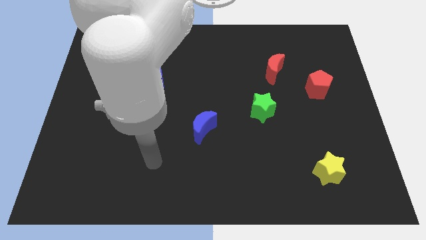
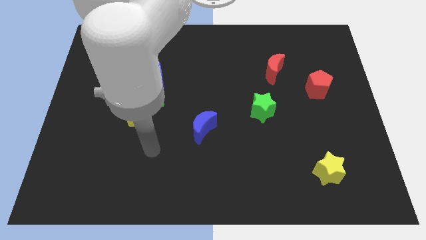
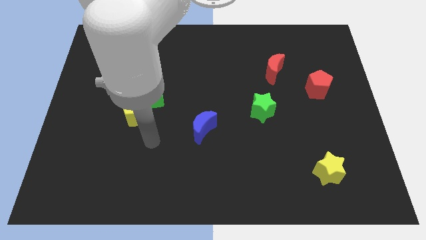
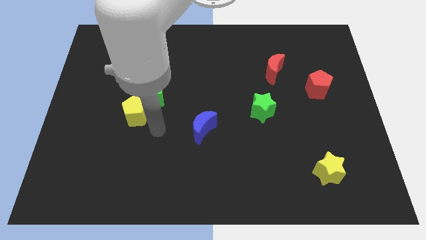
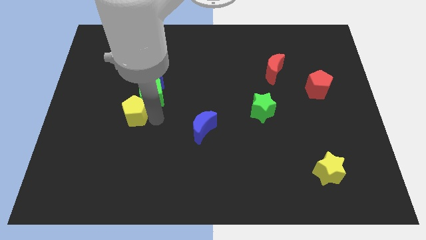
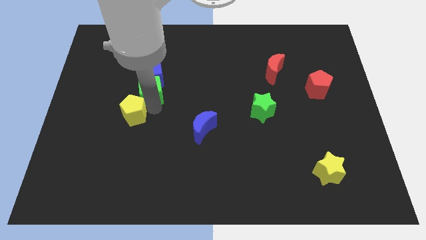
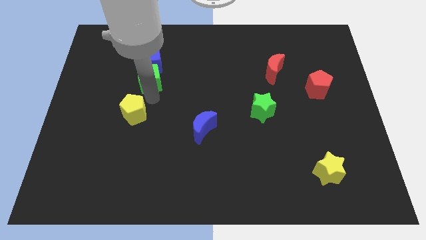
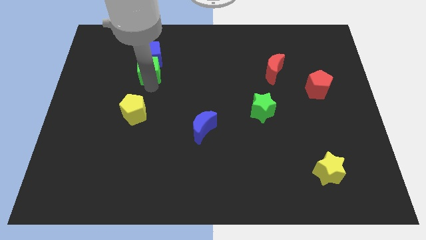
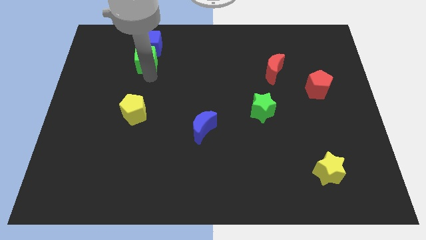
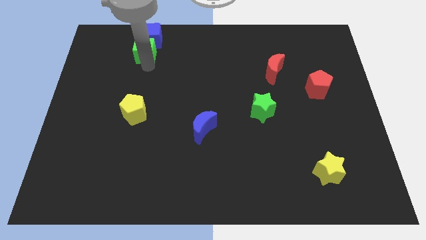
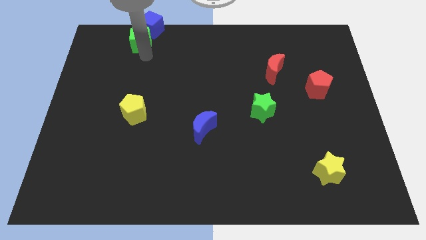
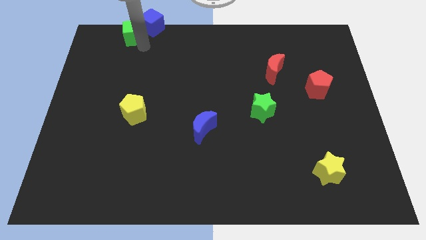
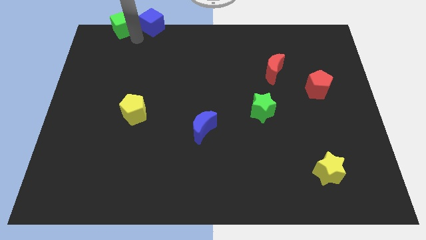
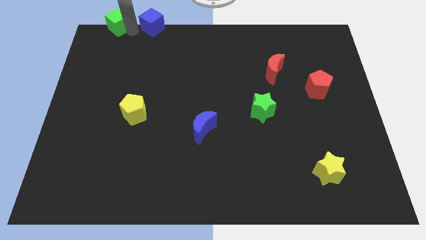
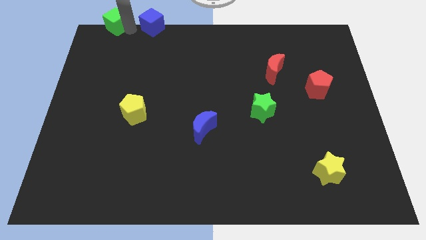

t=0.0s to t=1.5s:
move the blue cube away from the green cube

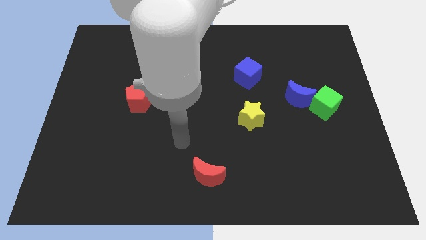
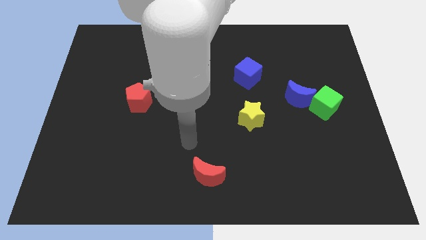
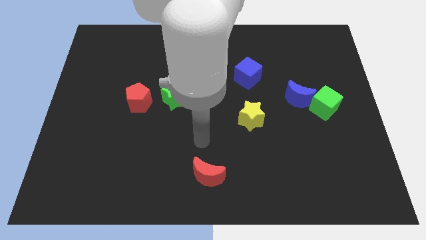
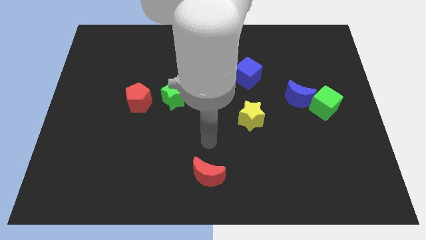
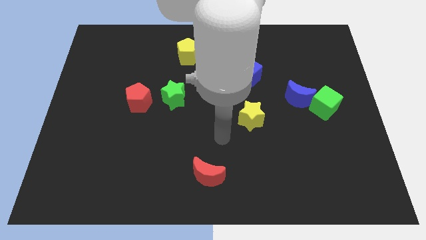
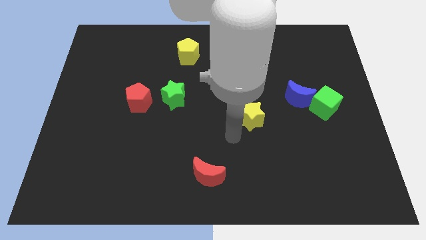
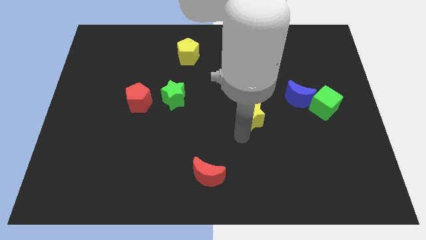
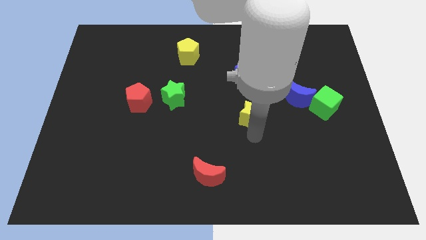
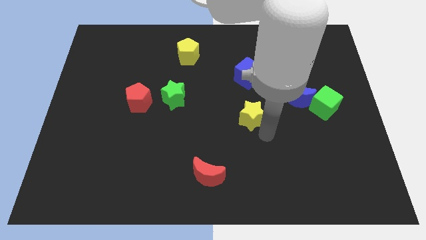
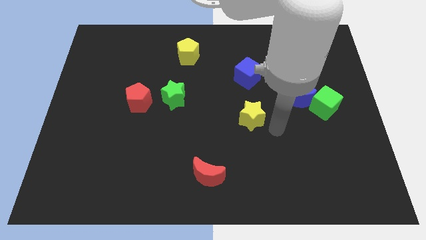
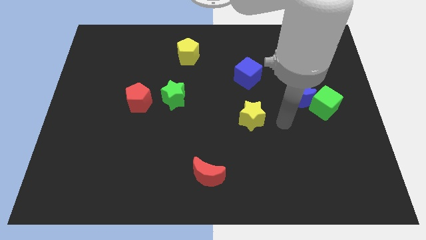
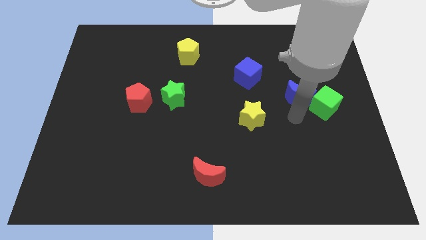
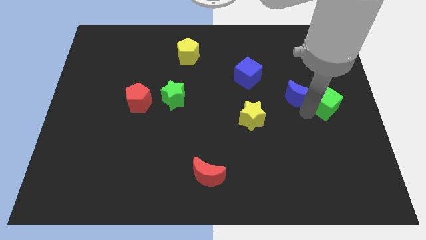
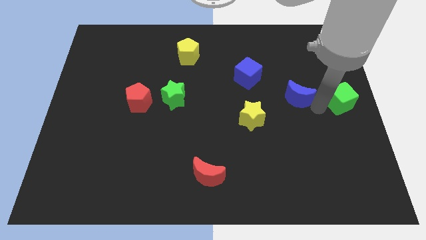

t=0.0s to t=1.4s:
separate the blue moon from the green cube

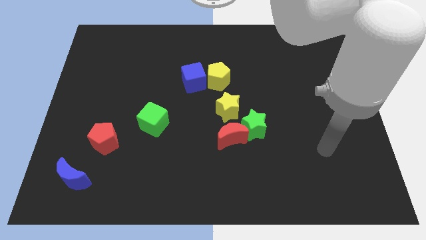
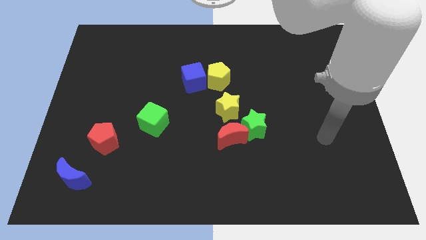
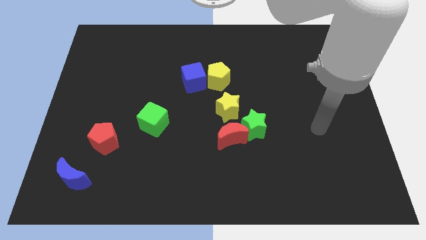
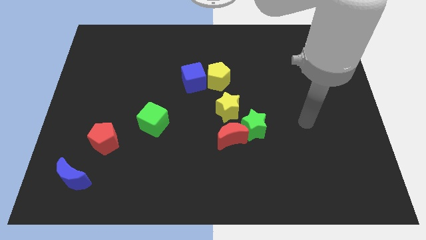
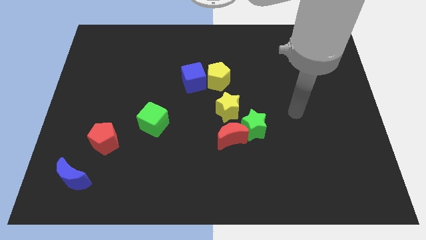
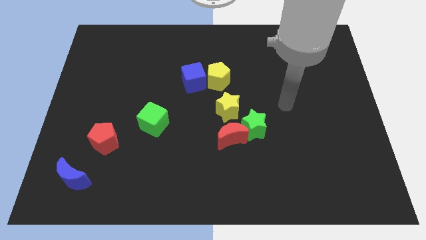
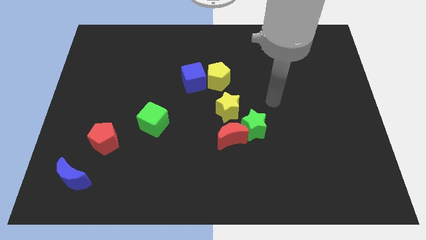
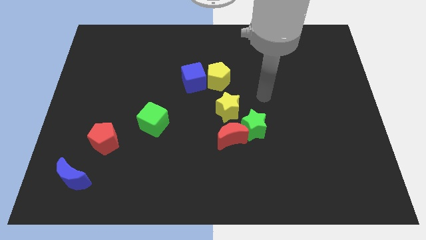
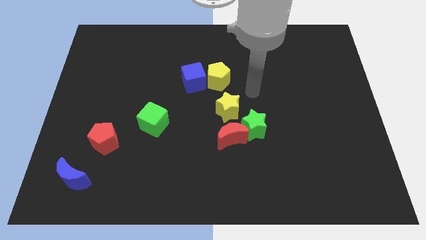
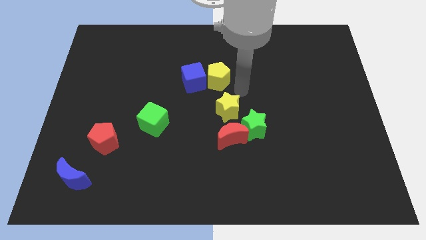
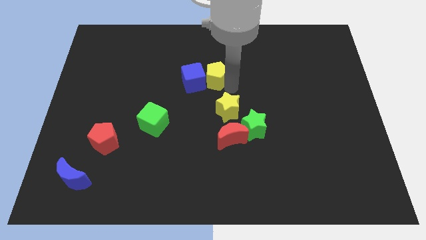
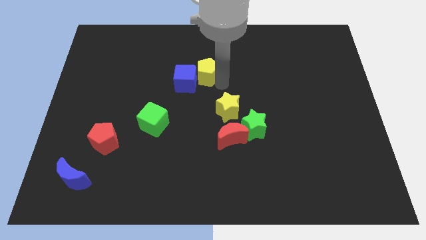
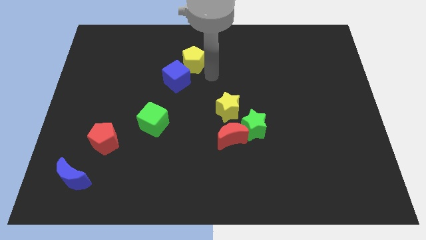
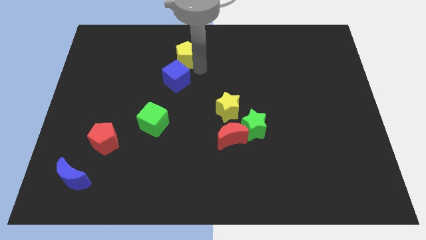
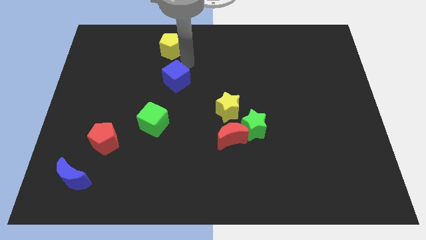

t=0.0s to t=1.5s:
move the blue cube away from the yellow pentagon

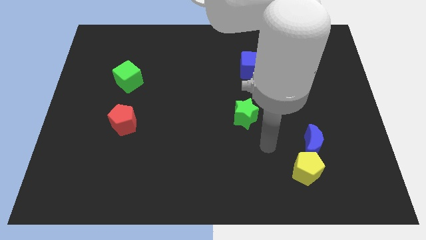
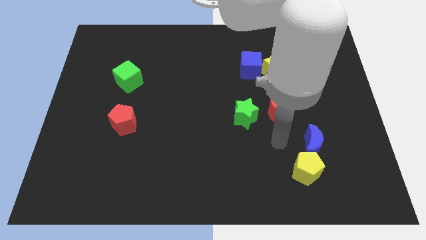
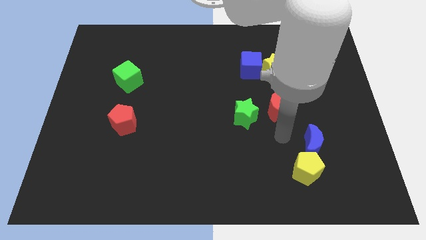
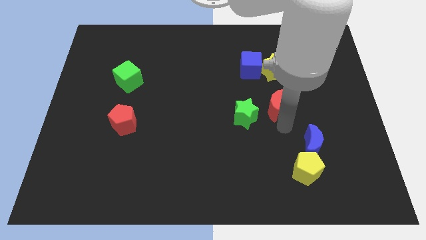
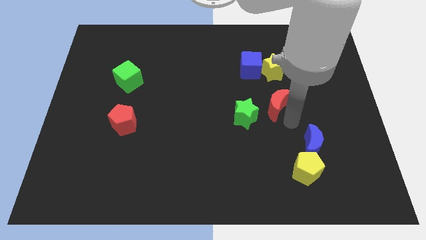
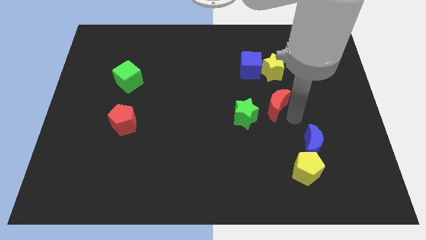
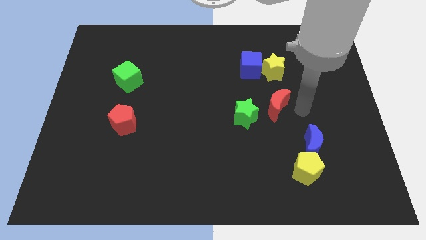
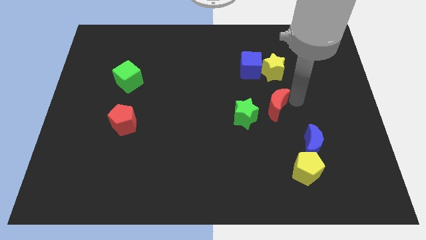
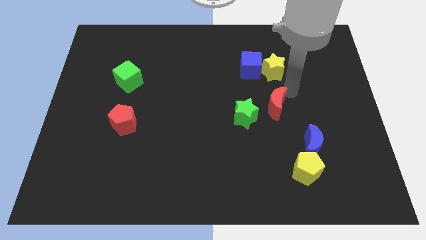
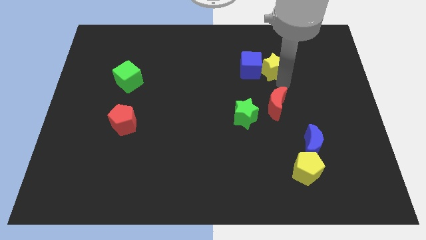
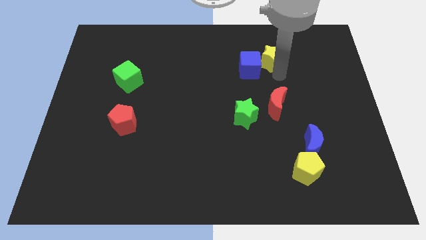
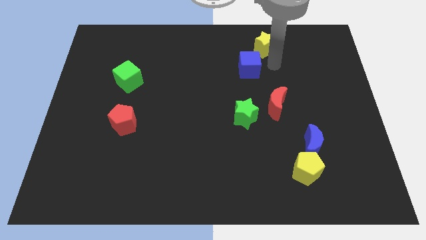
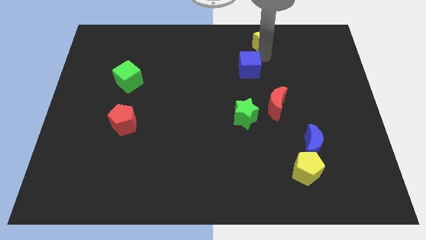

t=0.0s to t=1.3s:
separate the blue cube from the yellow star

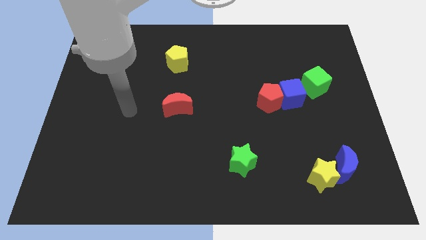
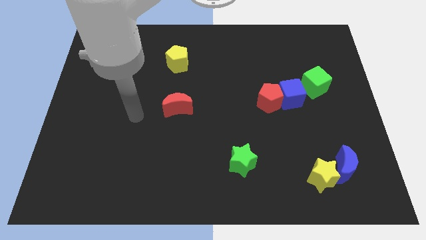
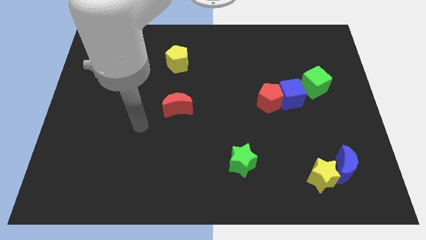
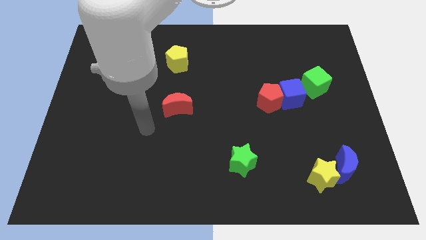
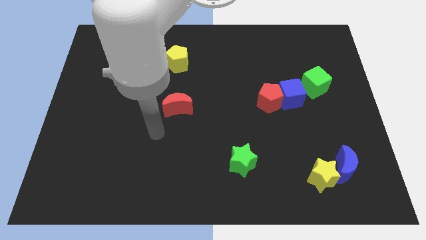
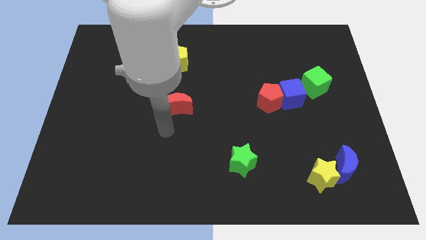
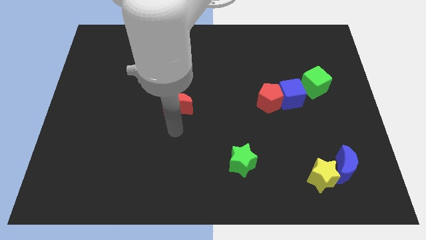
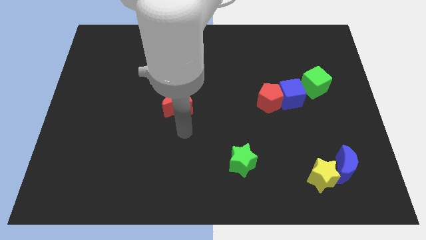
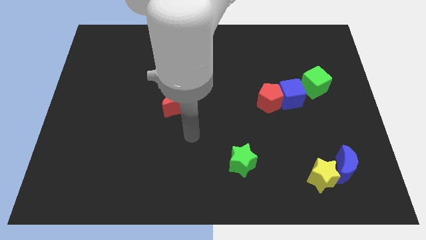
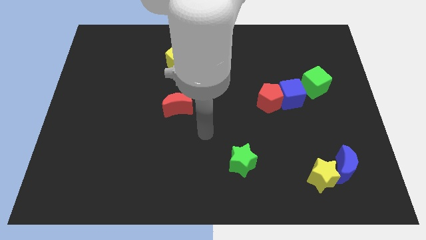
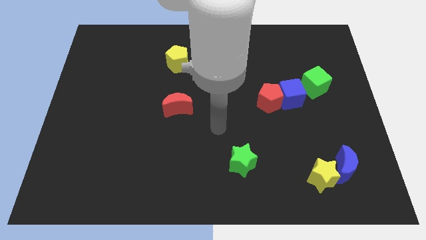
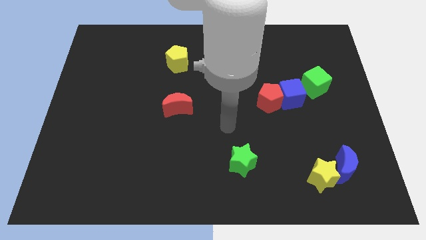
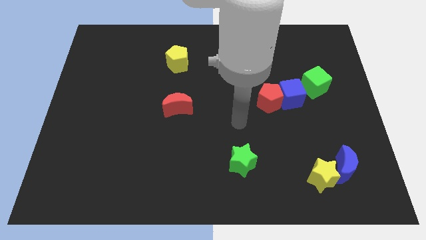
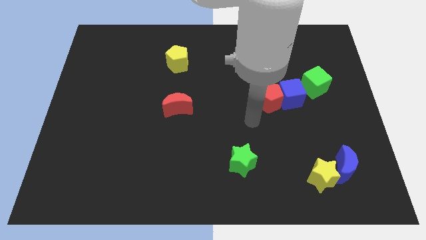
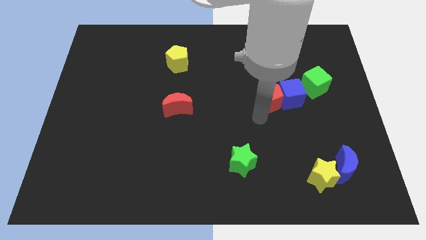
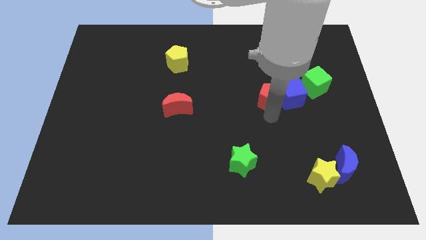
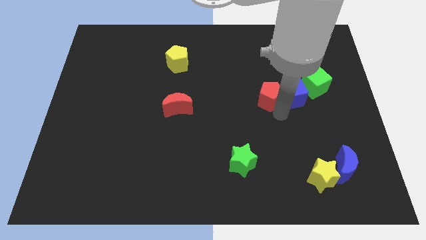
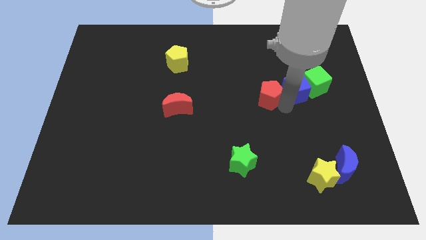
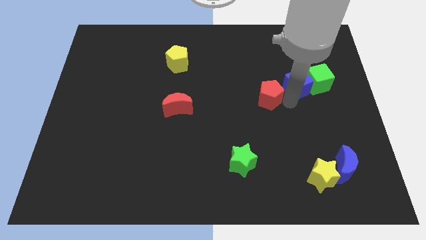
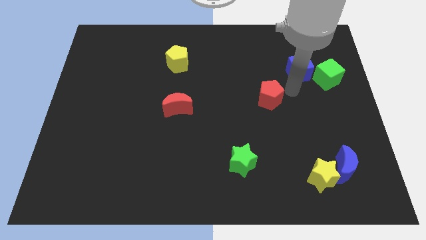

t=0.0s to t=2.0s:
pull the red pentagon apart from the blue cube

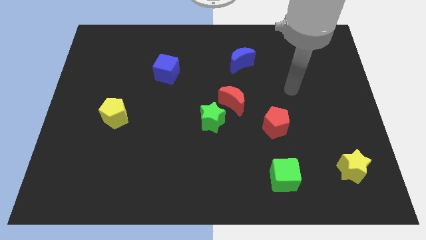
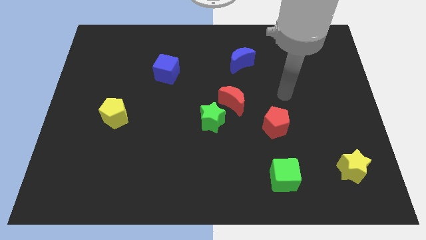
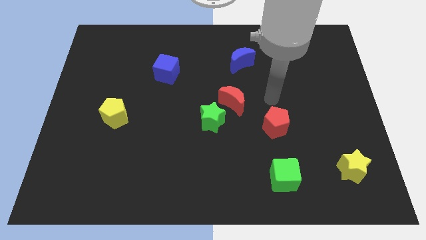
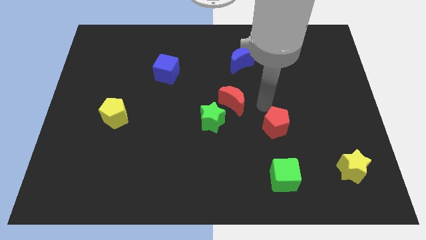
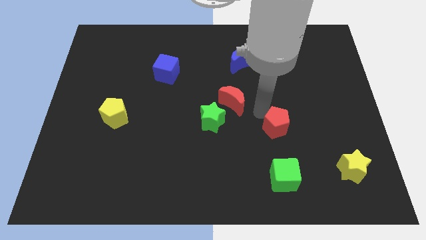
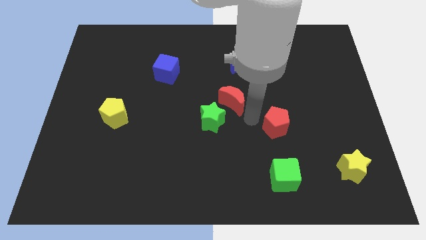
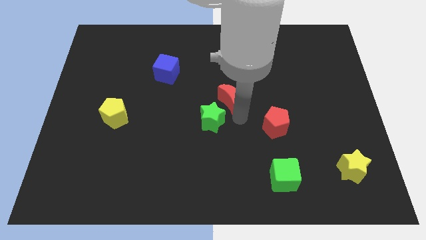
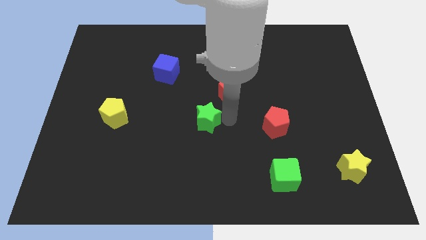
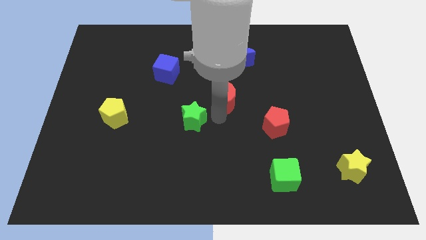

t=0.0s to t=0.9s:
move the red moon away from the green star

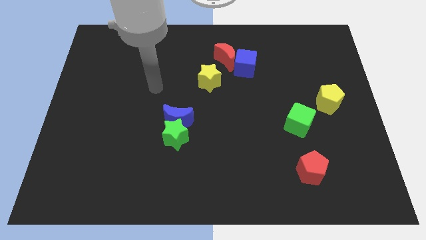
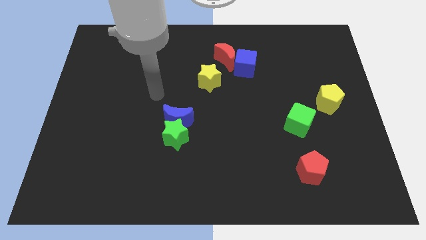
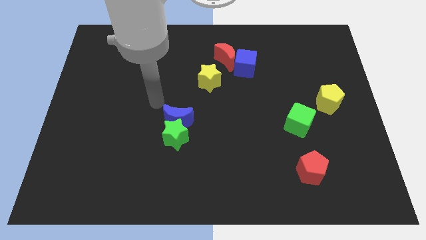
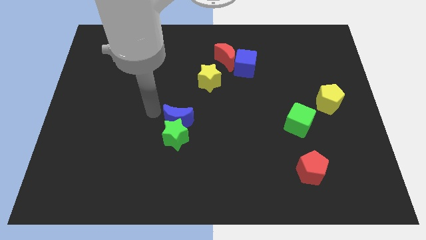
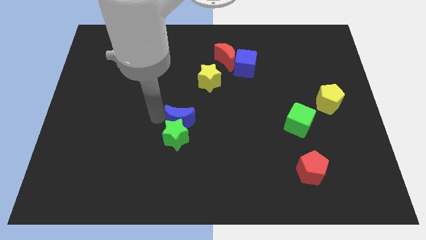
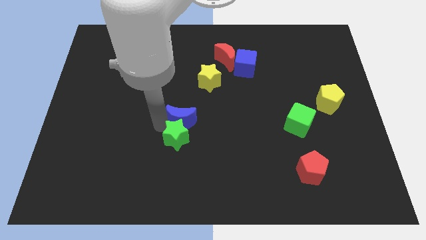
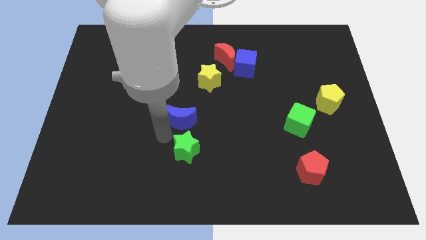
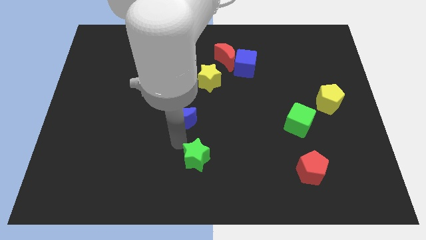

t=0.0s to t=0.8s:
pull the blue moon apart from the green star
